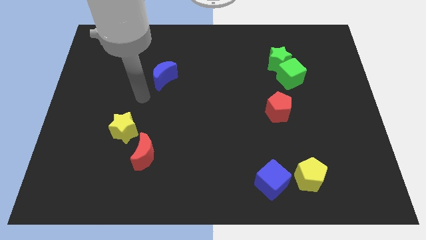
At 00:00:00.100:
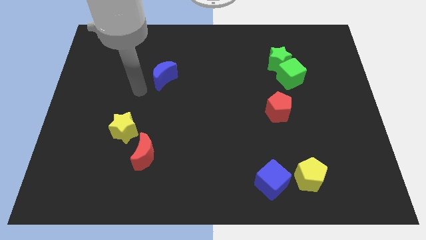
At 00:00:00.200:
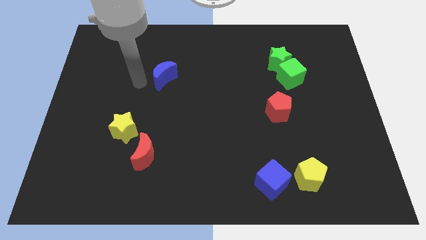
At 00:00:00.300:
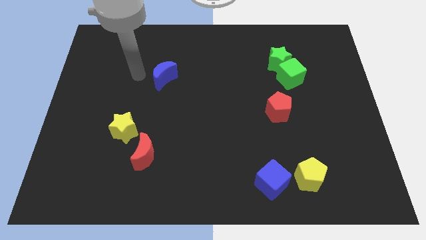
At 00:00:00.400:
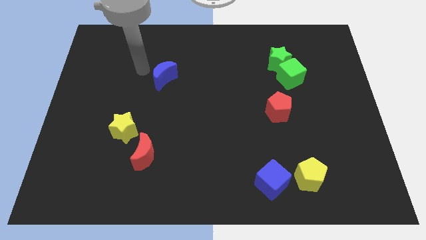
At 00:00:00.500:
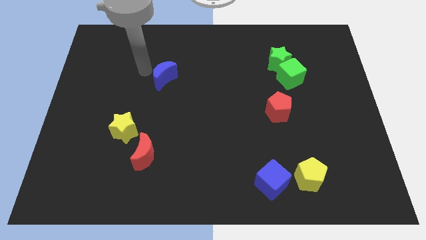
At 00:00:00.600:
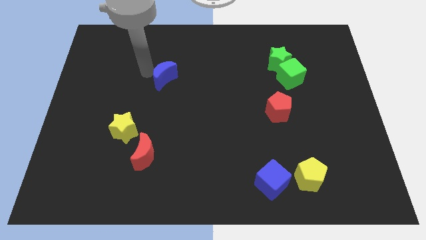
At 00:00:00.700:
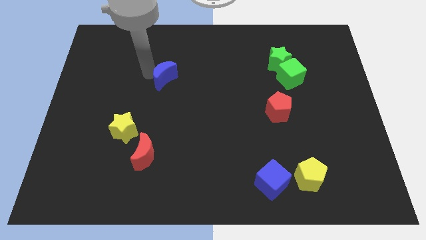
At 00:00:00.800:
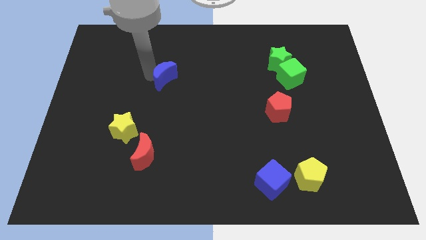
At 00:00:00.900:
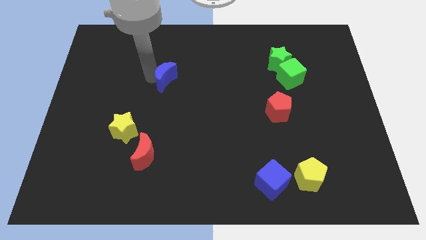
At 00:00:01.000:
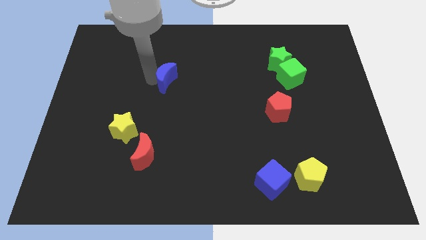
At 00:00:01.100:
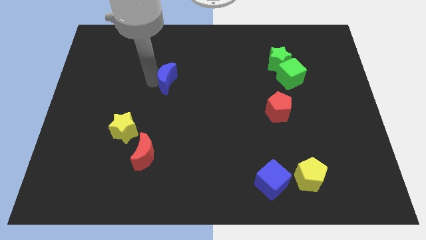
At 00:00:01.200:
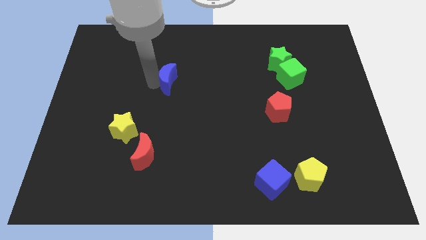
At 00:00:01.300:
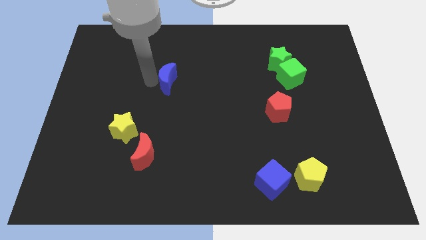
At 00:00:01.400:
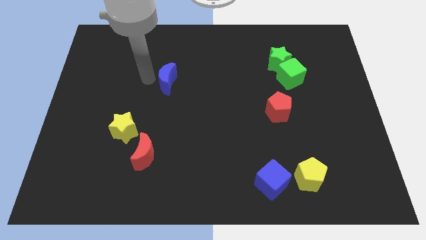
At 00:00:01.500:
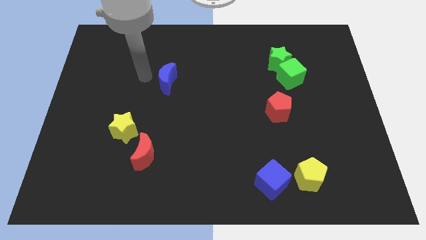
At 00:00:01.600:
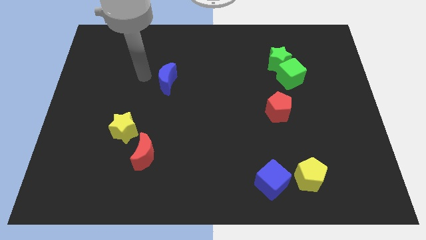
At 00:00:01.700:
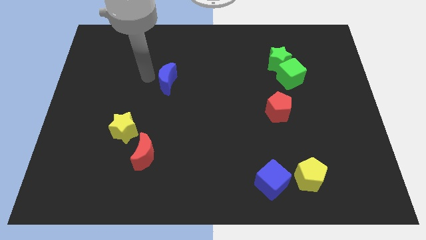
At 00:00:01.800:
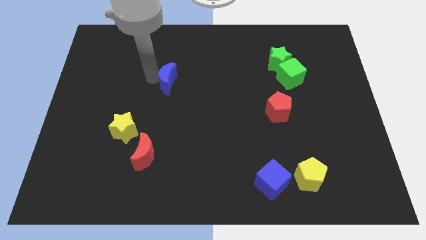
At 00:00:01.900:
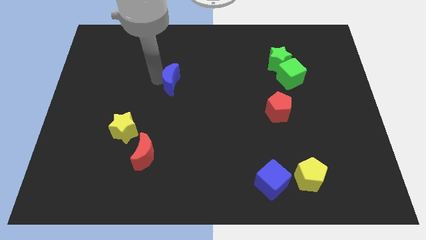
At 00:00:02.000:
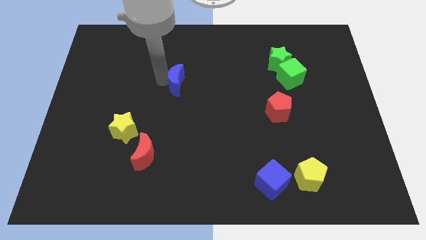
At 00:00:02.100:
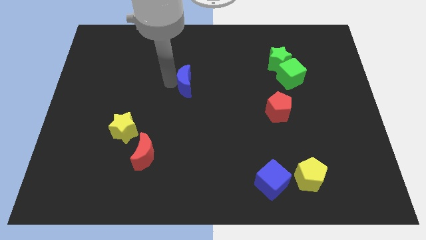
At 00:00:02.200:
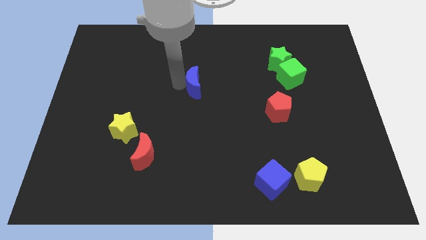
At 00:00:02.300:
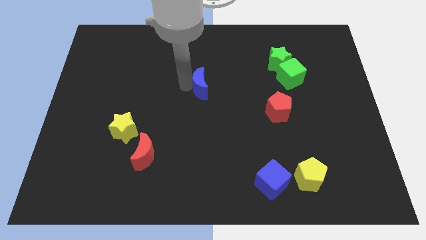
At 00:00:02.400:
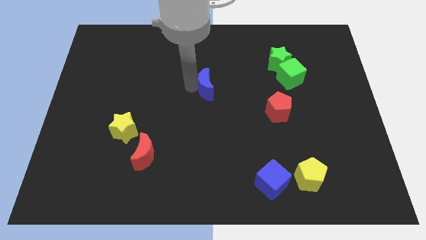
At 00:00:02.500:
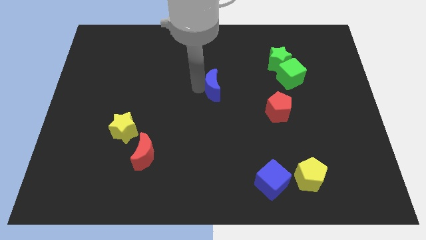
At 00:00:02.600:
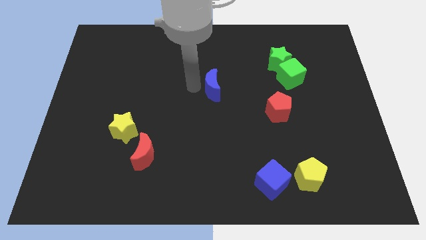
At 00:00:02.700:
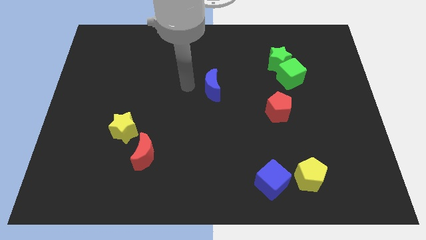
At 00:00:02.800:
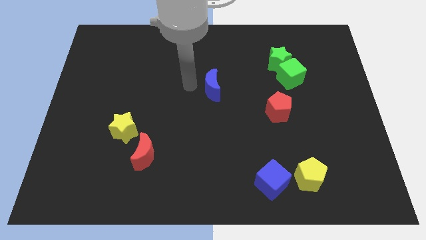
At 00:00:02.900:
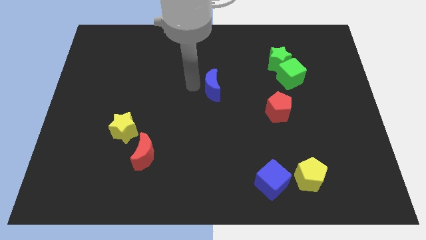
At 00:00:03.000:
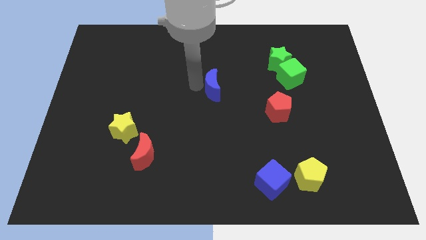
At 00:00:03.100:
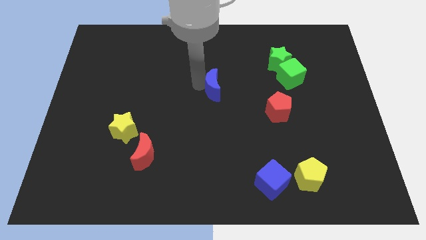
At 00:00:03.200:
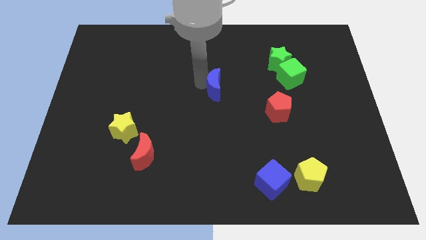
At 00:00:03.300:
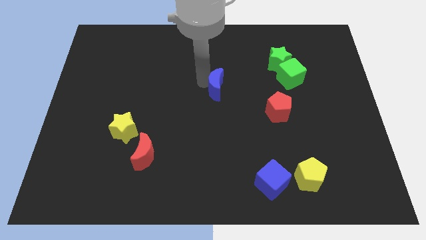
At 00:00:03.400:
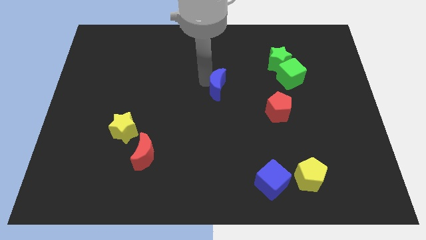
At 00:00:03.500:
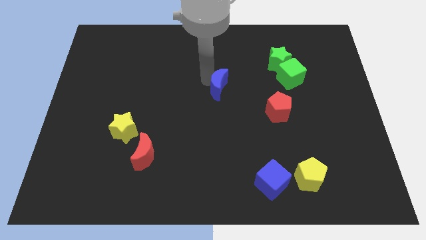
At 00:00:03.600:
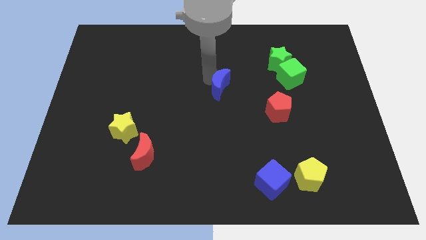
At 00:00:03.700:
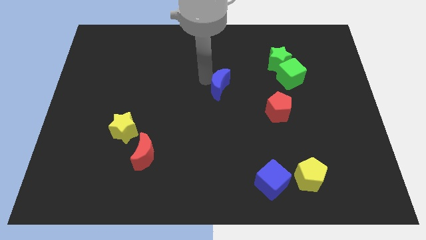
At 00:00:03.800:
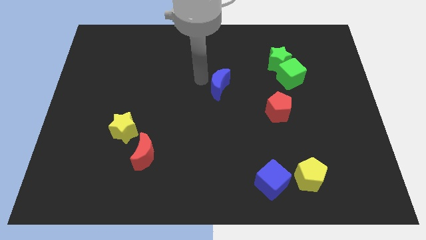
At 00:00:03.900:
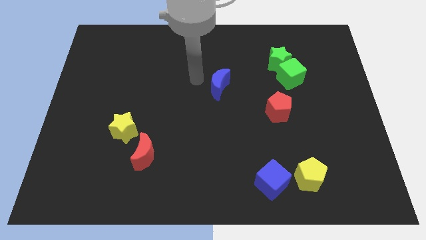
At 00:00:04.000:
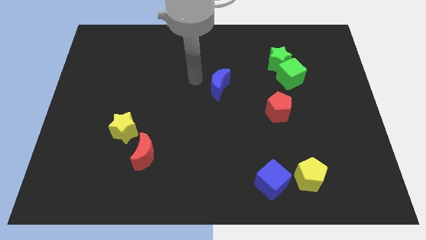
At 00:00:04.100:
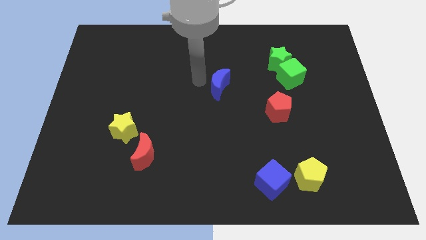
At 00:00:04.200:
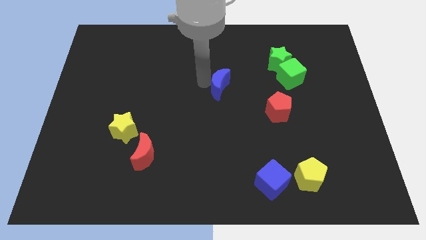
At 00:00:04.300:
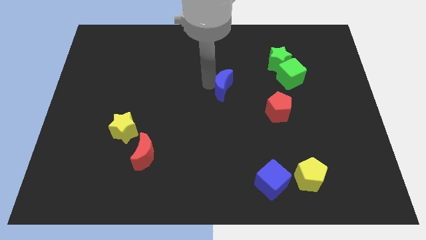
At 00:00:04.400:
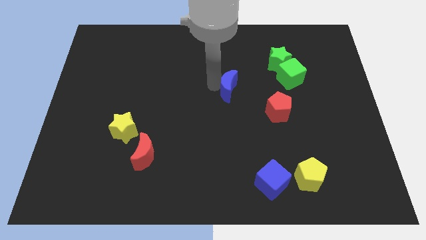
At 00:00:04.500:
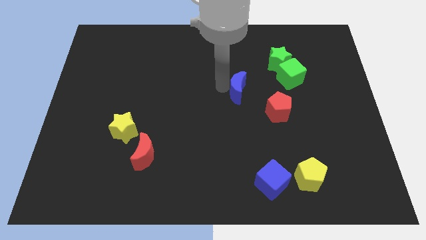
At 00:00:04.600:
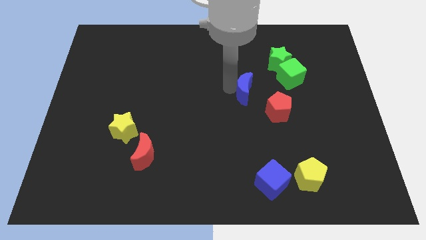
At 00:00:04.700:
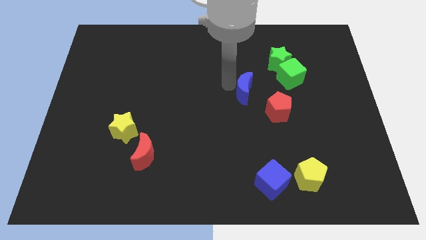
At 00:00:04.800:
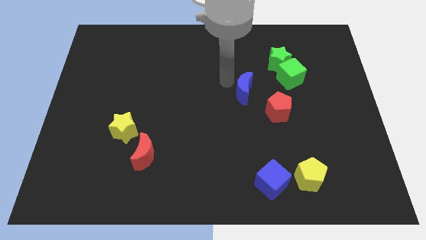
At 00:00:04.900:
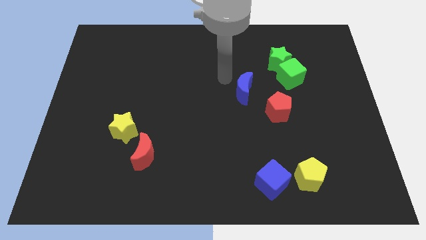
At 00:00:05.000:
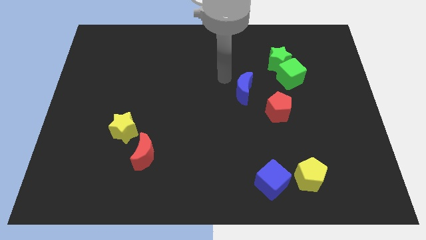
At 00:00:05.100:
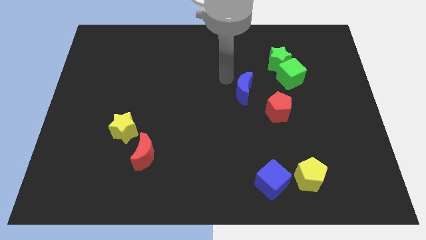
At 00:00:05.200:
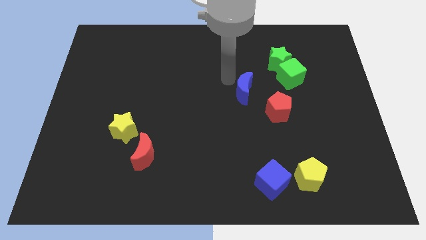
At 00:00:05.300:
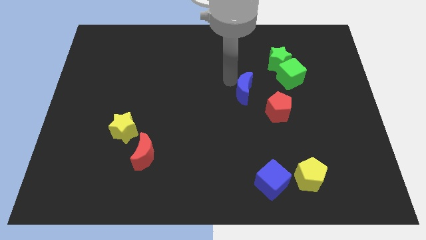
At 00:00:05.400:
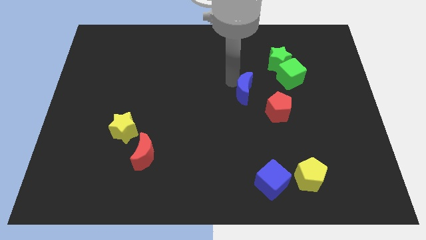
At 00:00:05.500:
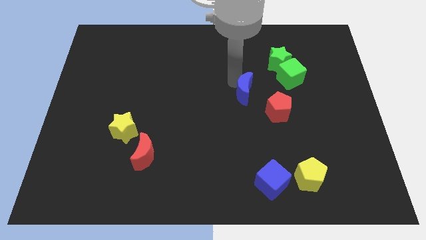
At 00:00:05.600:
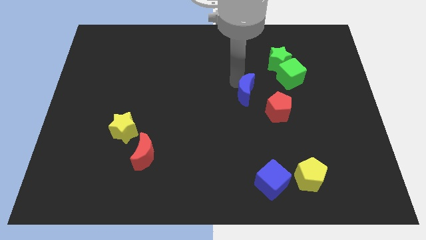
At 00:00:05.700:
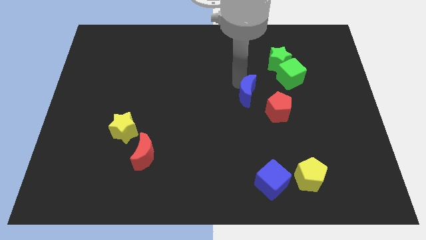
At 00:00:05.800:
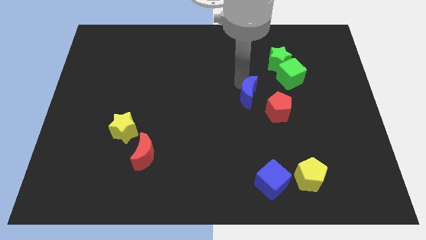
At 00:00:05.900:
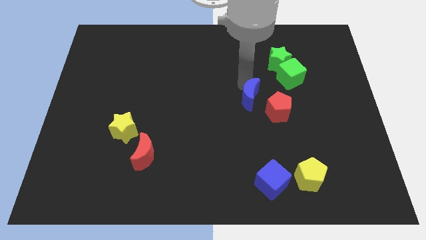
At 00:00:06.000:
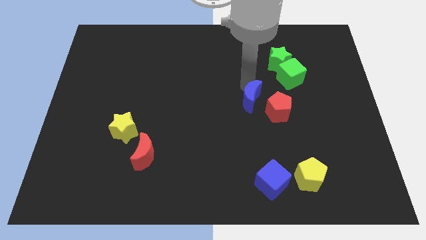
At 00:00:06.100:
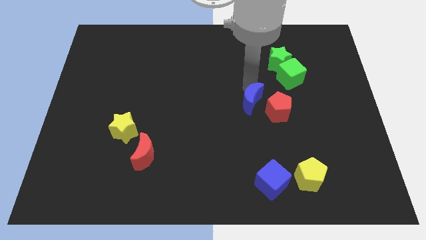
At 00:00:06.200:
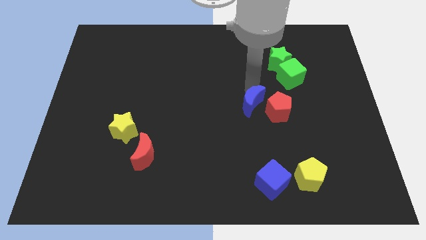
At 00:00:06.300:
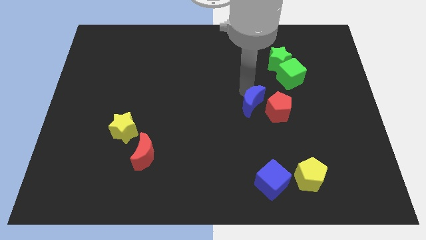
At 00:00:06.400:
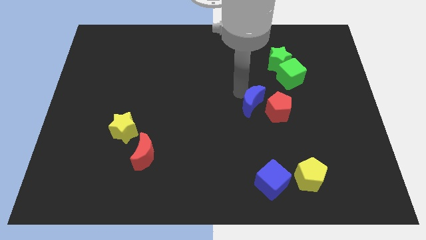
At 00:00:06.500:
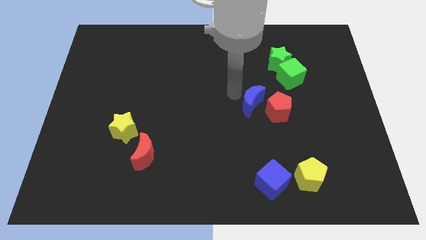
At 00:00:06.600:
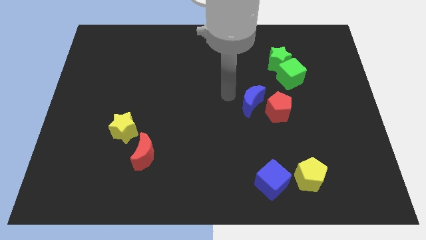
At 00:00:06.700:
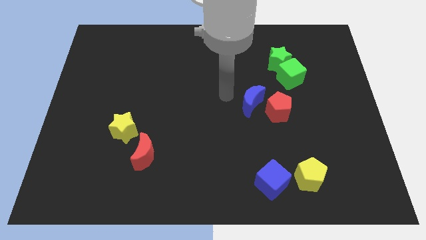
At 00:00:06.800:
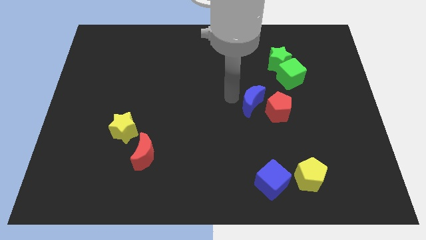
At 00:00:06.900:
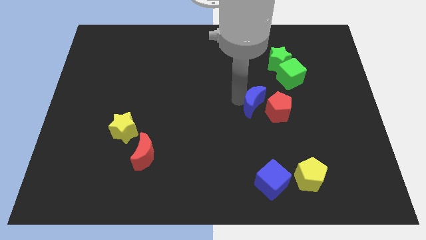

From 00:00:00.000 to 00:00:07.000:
put the blue moon next to the red pentagon
